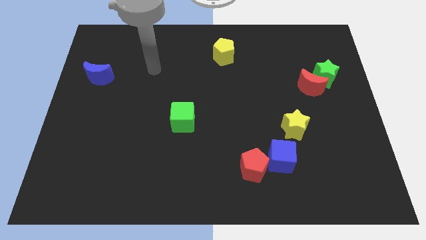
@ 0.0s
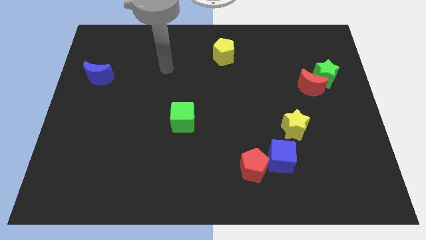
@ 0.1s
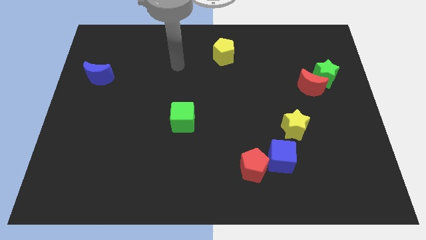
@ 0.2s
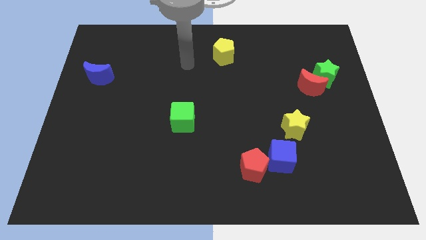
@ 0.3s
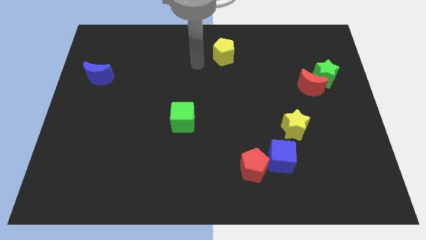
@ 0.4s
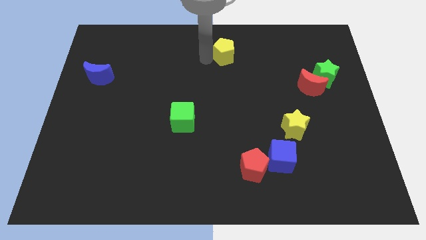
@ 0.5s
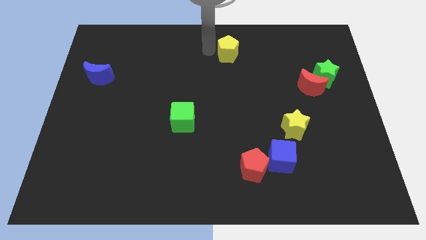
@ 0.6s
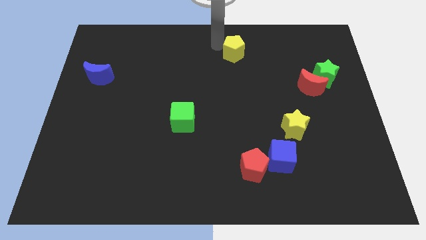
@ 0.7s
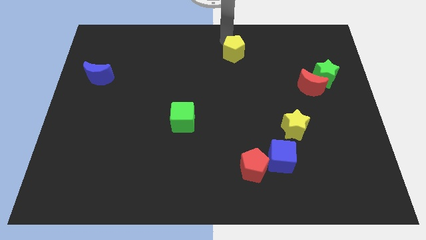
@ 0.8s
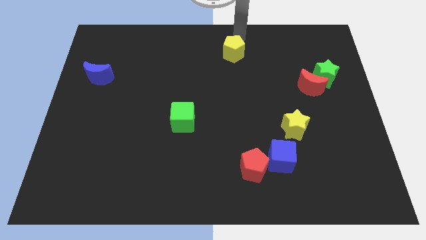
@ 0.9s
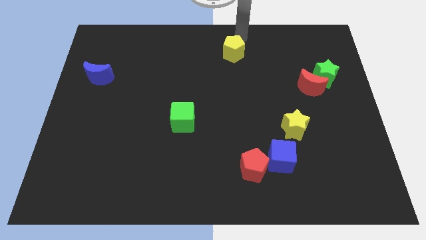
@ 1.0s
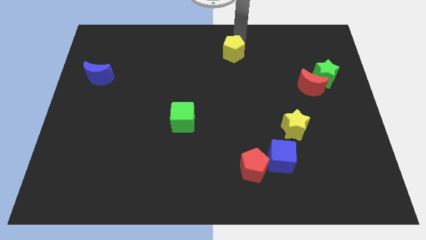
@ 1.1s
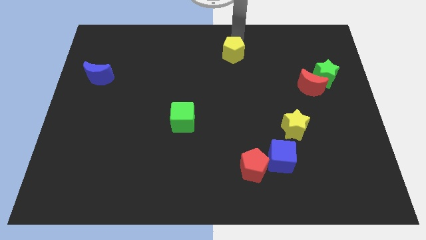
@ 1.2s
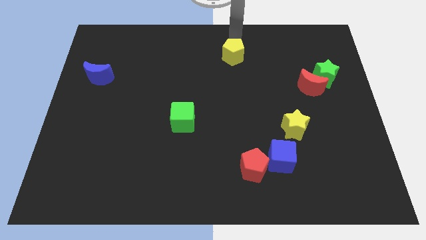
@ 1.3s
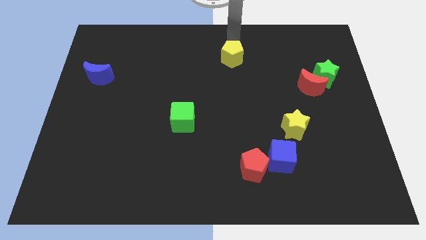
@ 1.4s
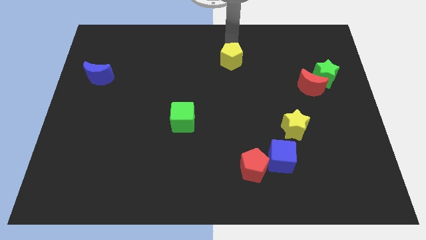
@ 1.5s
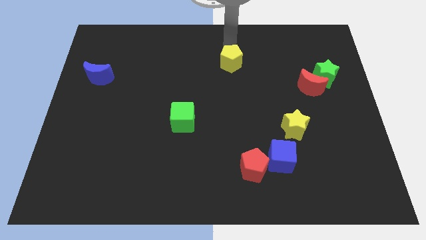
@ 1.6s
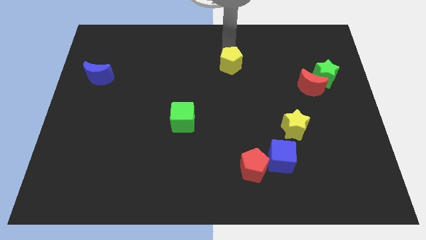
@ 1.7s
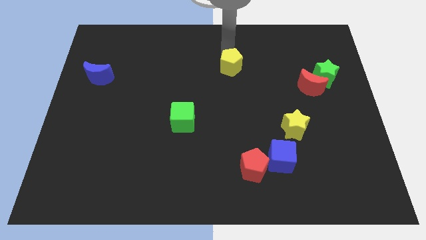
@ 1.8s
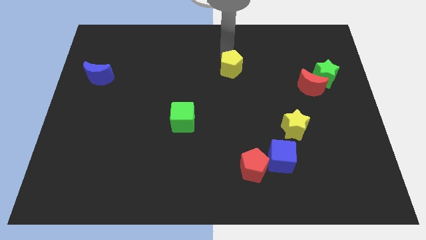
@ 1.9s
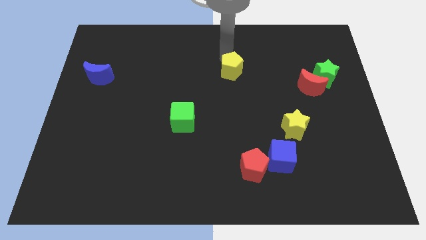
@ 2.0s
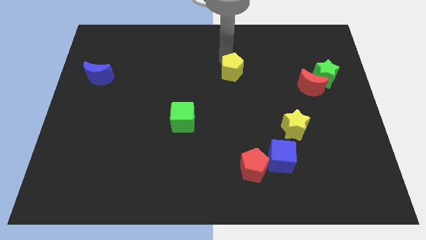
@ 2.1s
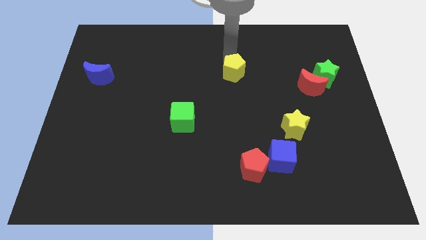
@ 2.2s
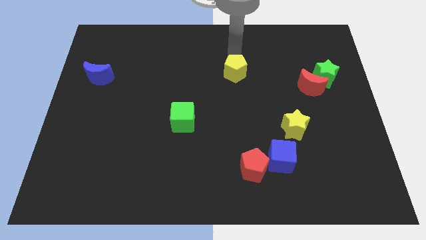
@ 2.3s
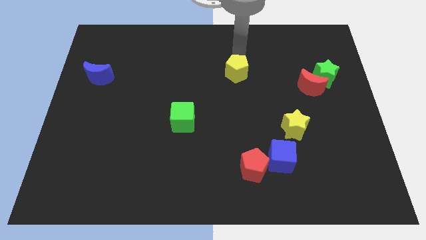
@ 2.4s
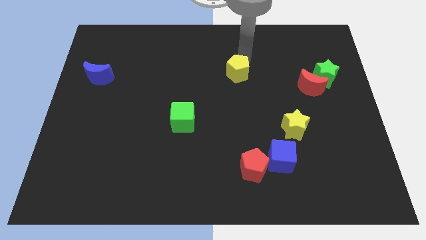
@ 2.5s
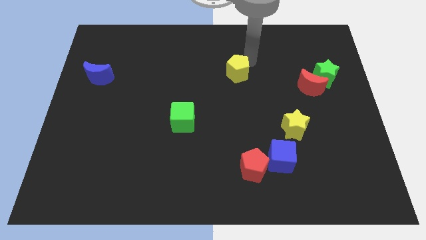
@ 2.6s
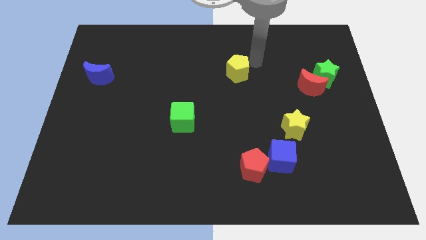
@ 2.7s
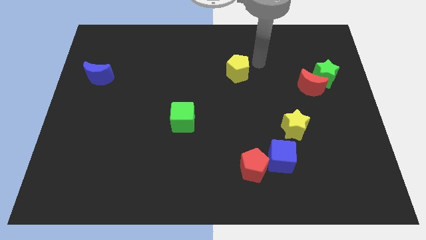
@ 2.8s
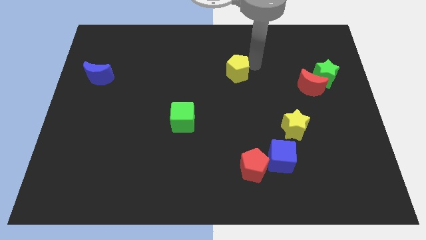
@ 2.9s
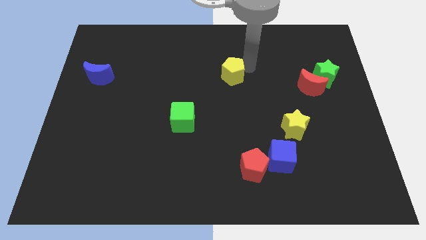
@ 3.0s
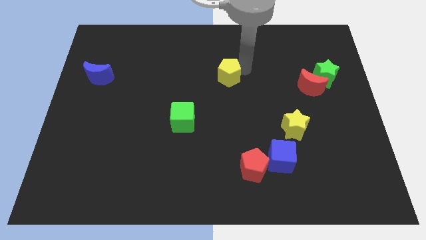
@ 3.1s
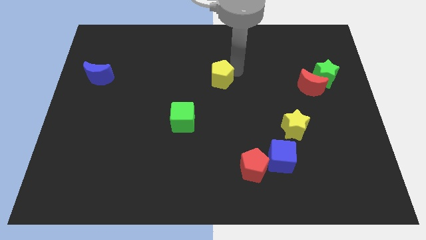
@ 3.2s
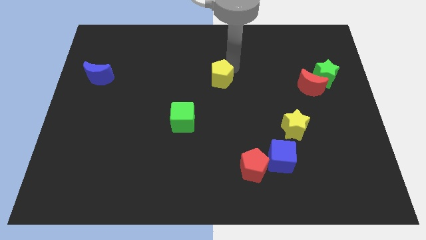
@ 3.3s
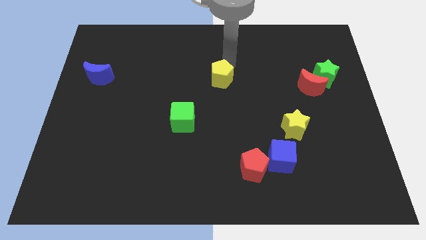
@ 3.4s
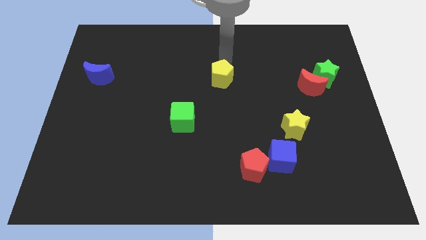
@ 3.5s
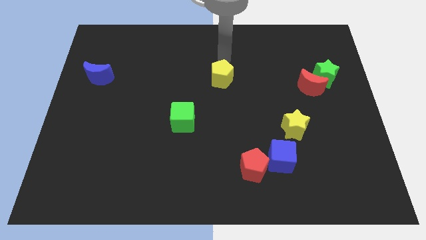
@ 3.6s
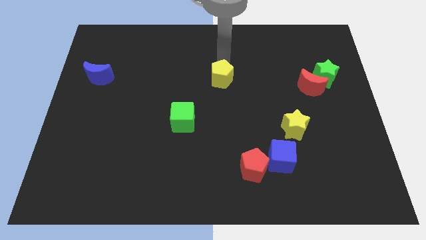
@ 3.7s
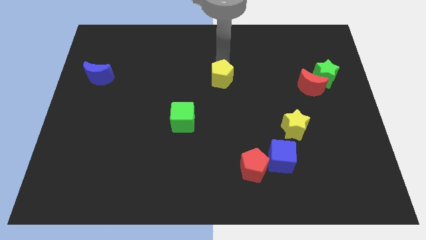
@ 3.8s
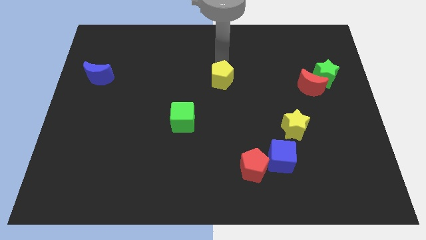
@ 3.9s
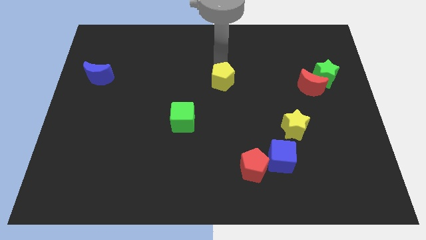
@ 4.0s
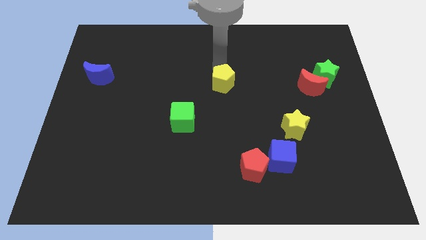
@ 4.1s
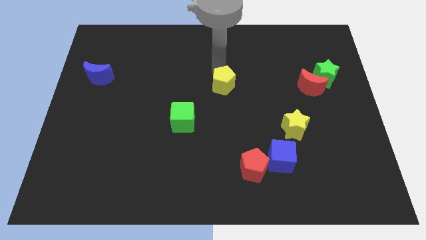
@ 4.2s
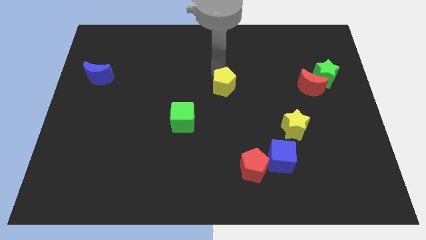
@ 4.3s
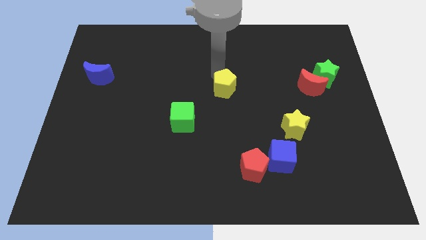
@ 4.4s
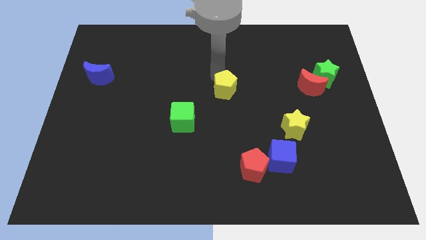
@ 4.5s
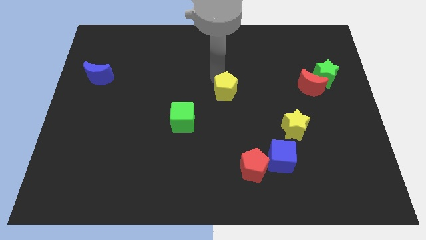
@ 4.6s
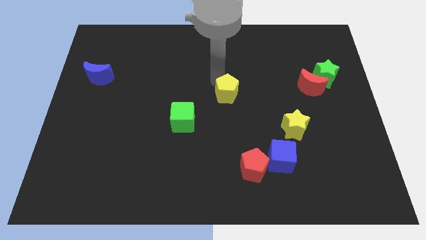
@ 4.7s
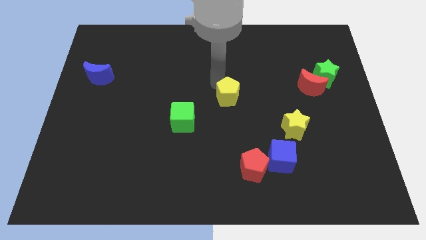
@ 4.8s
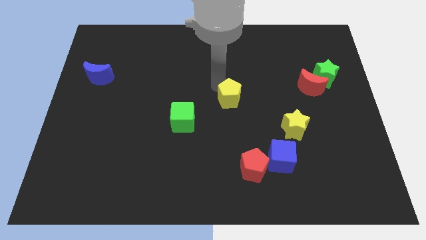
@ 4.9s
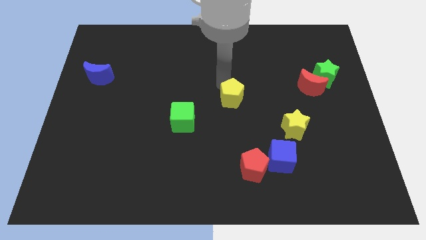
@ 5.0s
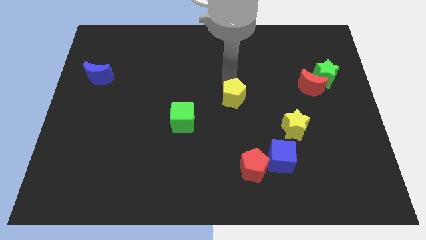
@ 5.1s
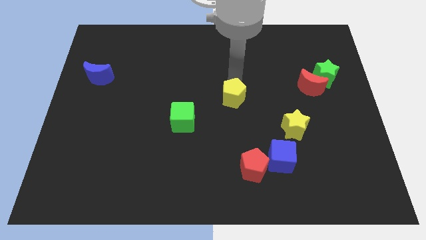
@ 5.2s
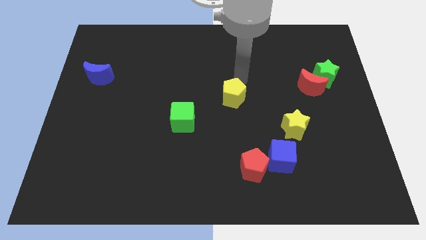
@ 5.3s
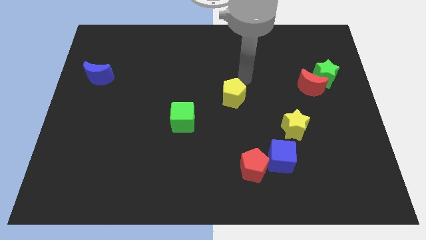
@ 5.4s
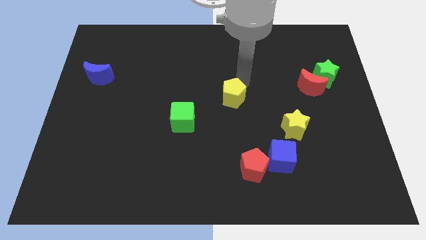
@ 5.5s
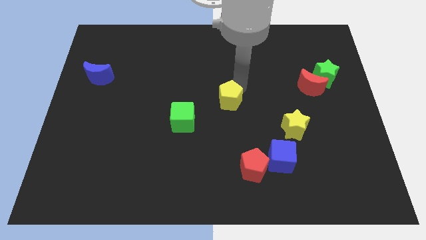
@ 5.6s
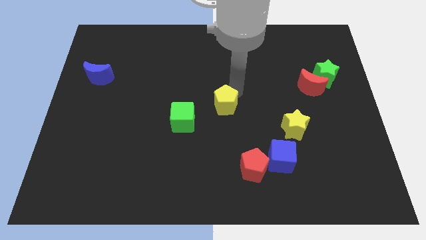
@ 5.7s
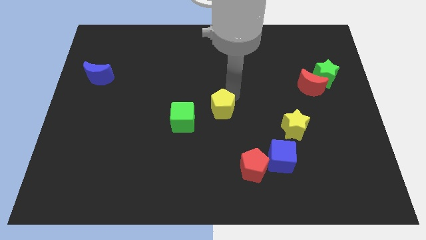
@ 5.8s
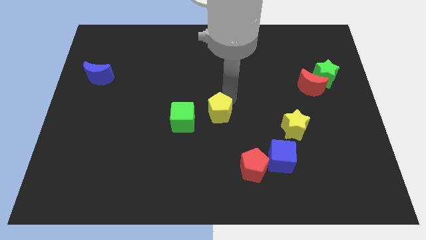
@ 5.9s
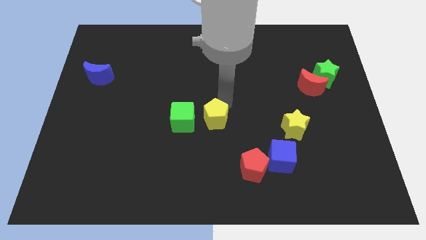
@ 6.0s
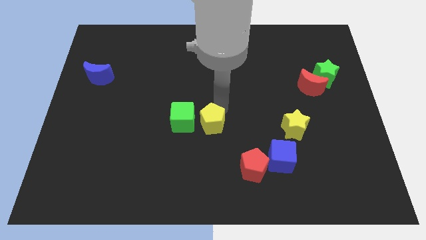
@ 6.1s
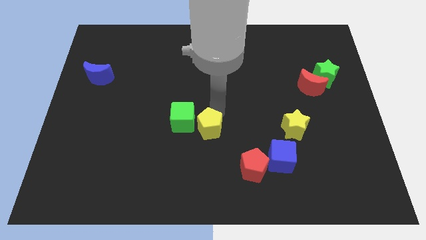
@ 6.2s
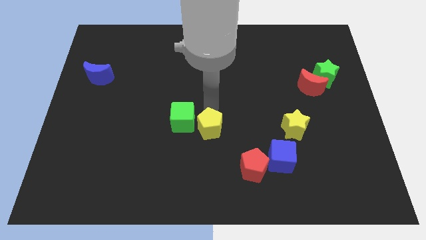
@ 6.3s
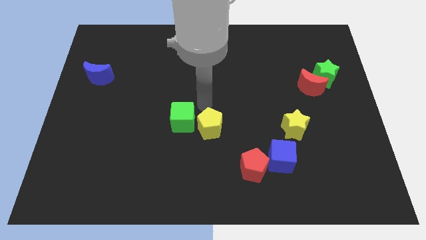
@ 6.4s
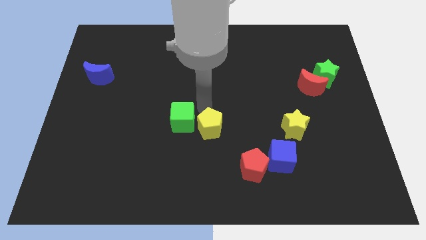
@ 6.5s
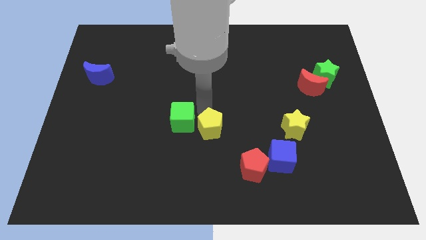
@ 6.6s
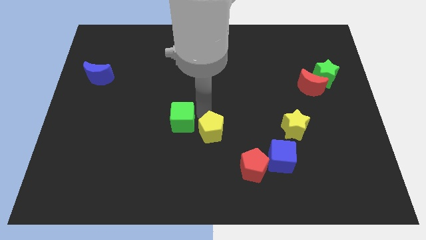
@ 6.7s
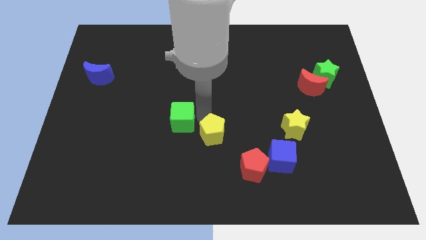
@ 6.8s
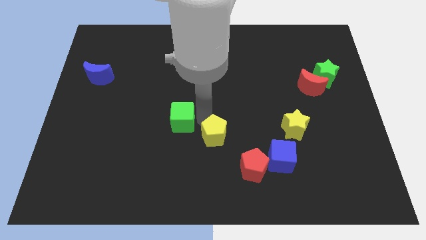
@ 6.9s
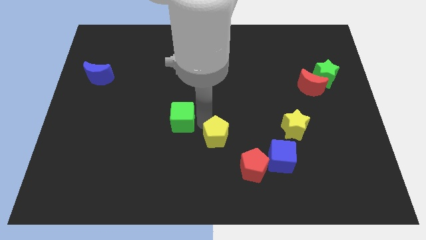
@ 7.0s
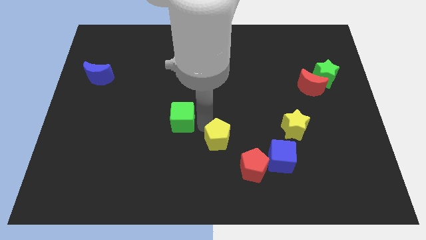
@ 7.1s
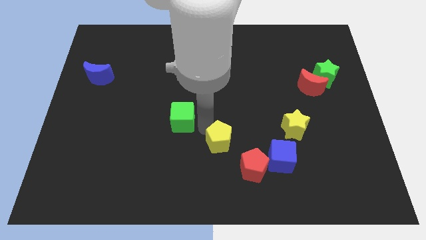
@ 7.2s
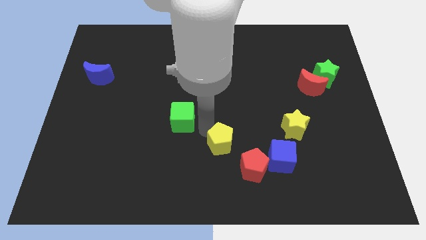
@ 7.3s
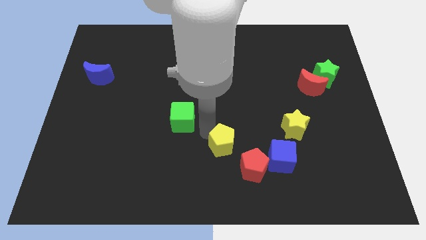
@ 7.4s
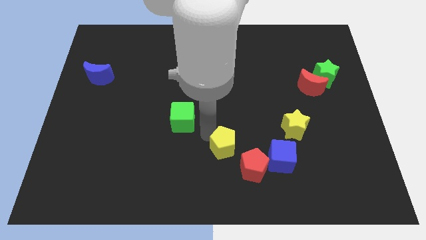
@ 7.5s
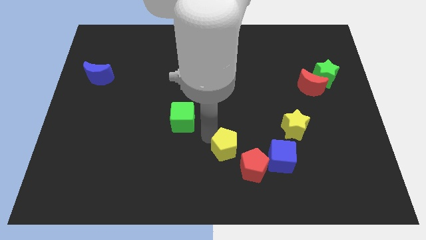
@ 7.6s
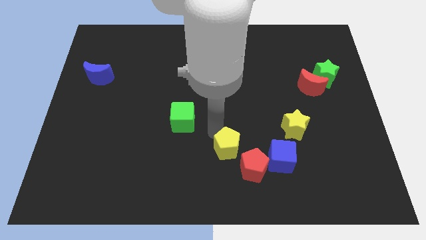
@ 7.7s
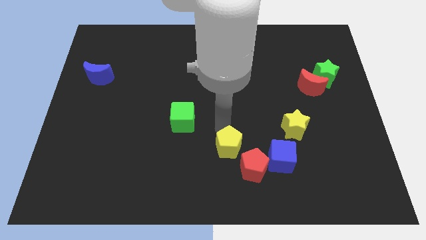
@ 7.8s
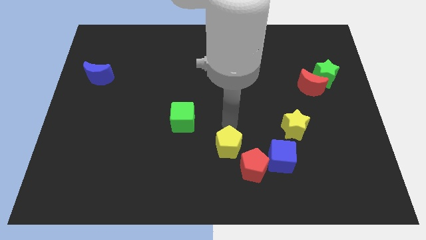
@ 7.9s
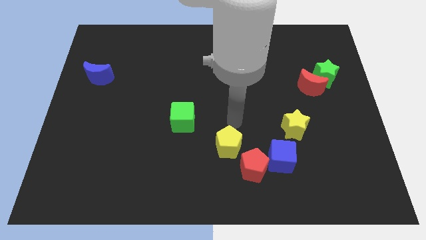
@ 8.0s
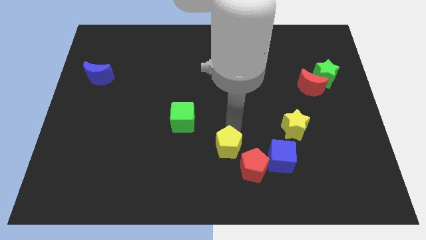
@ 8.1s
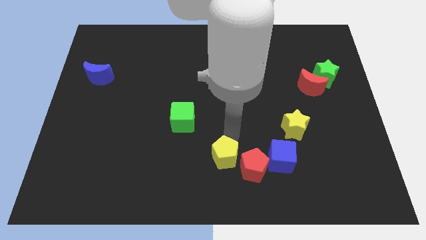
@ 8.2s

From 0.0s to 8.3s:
put the yellow pentagon to the bottom side
